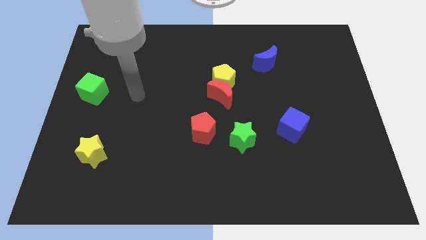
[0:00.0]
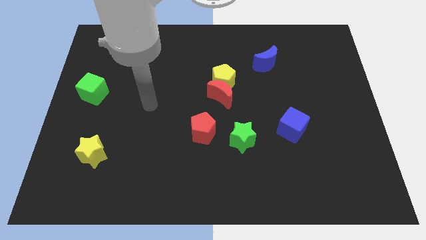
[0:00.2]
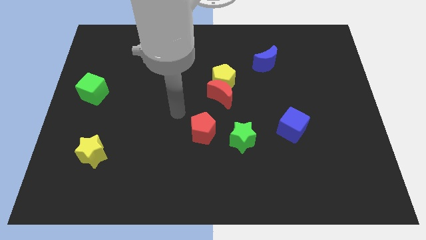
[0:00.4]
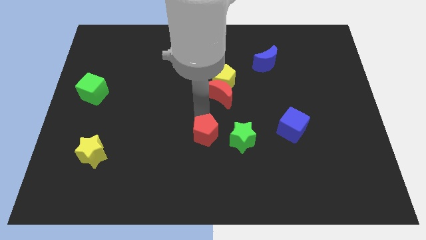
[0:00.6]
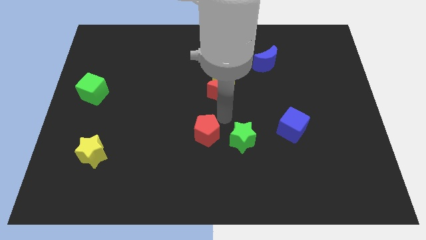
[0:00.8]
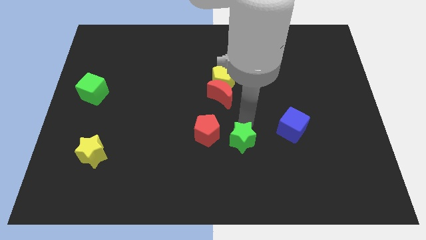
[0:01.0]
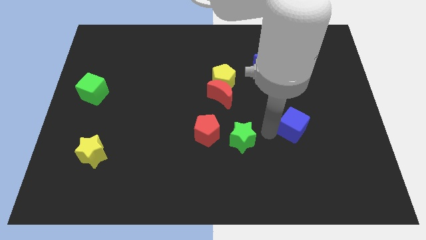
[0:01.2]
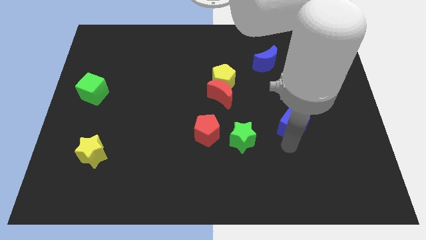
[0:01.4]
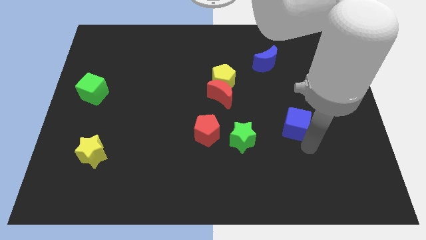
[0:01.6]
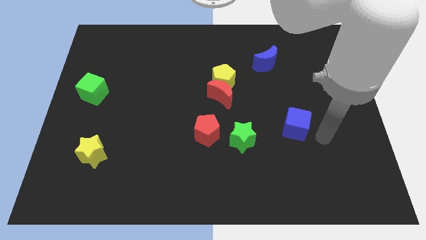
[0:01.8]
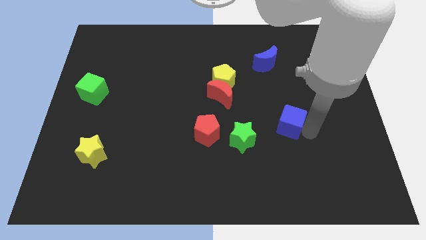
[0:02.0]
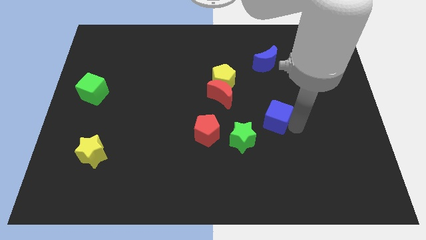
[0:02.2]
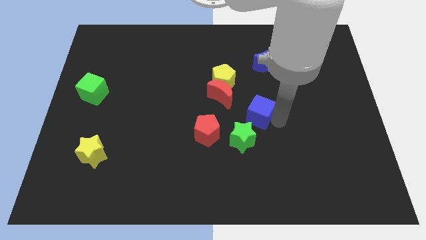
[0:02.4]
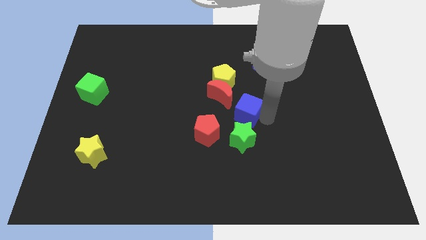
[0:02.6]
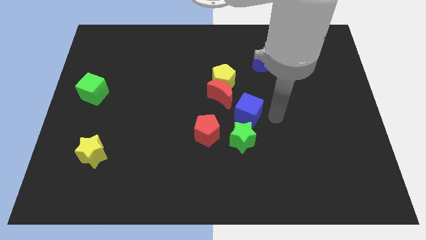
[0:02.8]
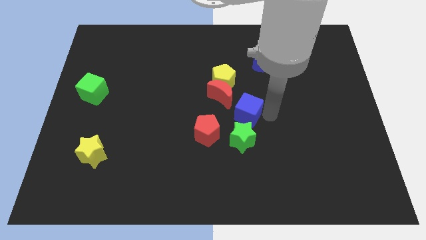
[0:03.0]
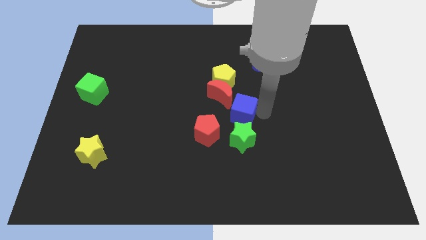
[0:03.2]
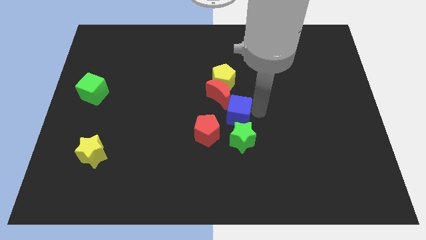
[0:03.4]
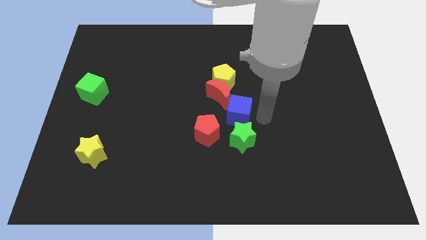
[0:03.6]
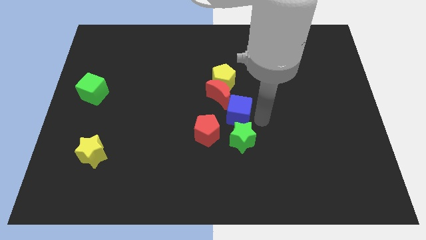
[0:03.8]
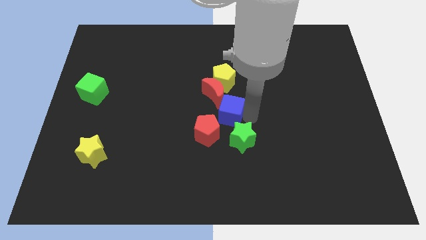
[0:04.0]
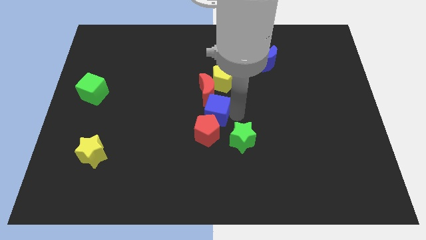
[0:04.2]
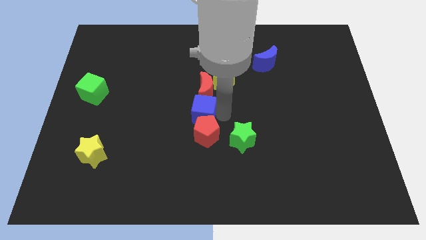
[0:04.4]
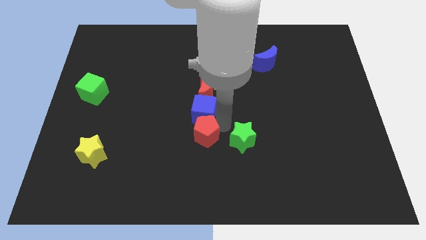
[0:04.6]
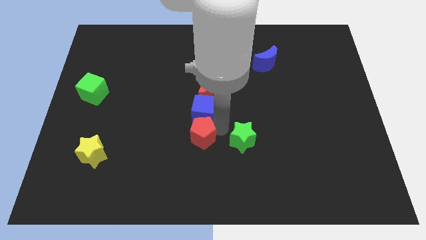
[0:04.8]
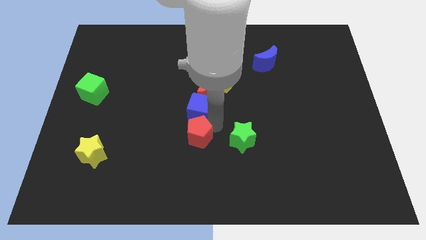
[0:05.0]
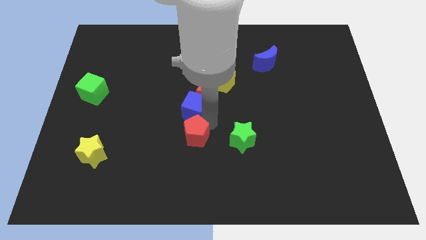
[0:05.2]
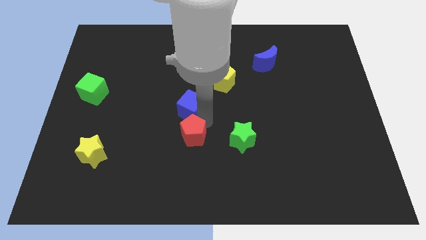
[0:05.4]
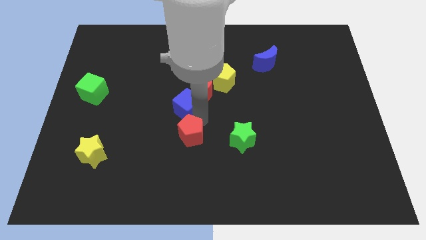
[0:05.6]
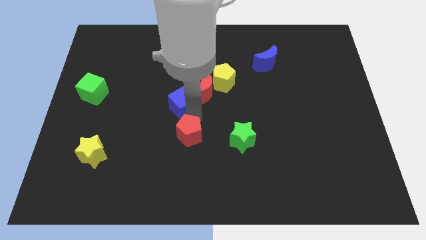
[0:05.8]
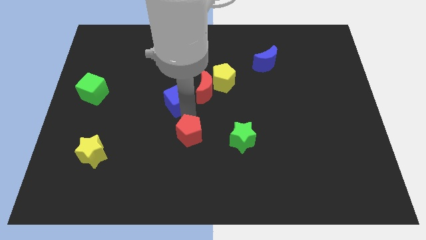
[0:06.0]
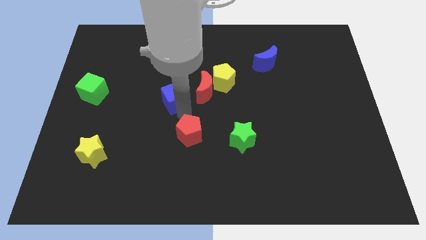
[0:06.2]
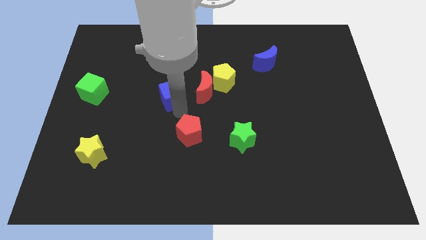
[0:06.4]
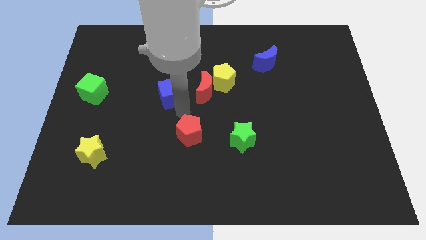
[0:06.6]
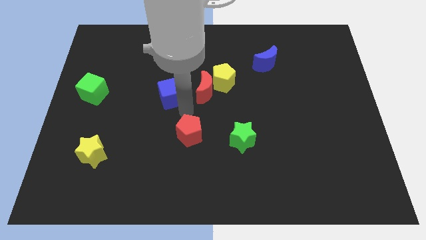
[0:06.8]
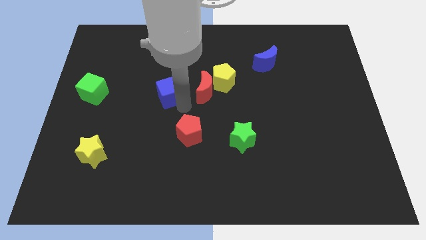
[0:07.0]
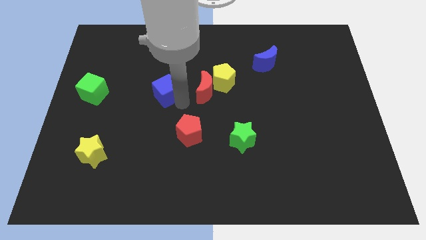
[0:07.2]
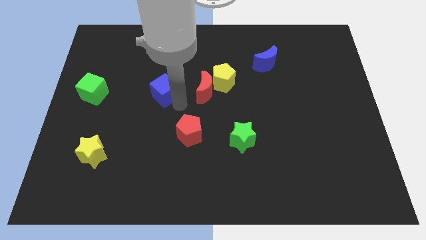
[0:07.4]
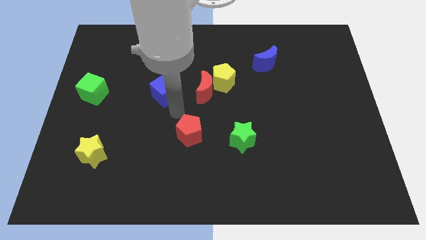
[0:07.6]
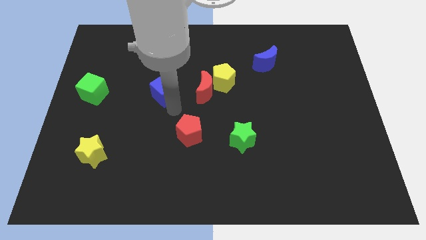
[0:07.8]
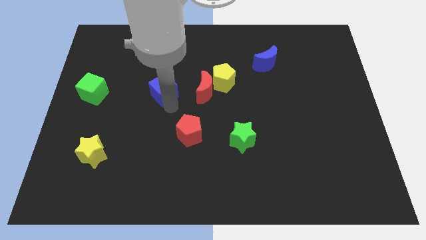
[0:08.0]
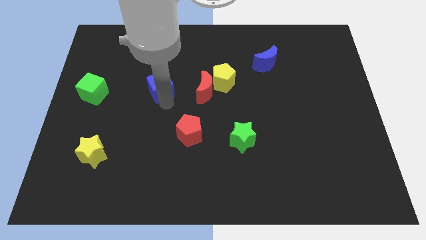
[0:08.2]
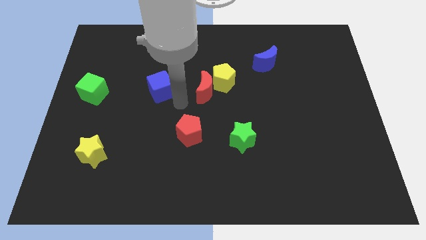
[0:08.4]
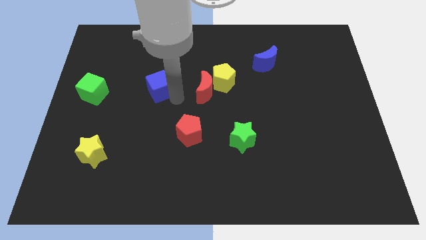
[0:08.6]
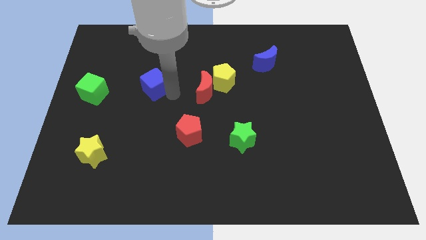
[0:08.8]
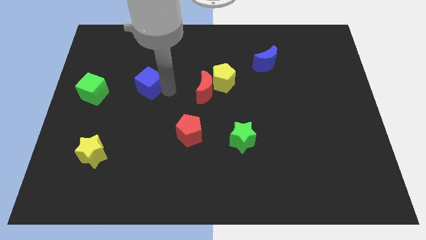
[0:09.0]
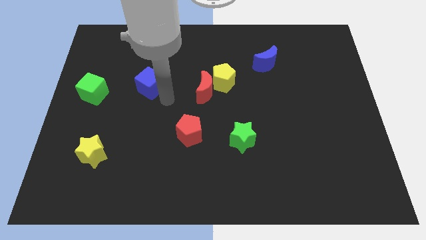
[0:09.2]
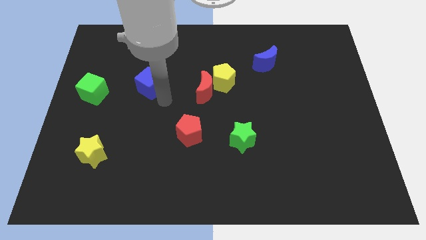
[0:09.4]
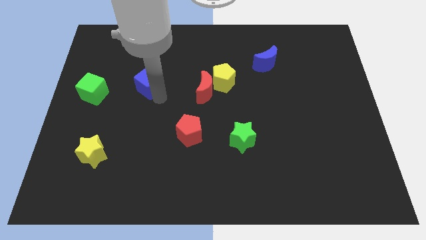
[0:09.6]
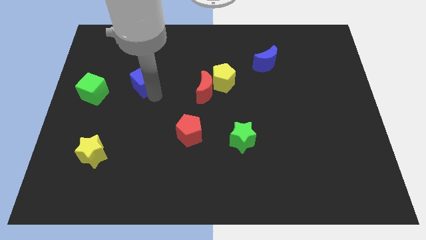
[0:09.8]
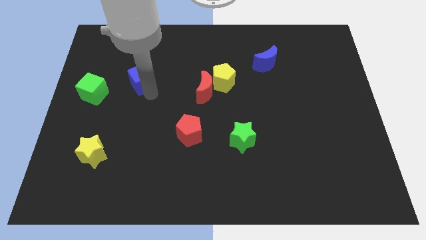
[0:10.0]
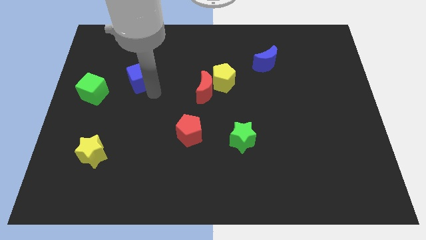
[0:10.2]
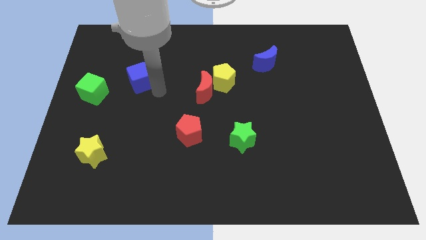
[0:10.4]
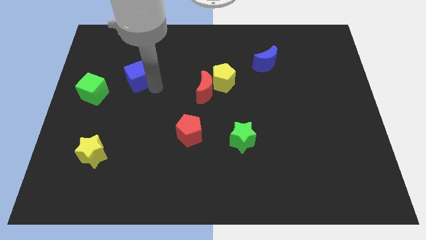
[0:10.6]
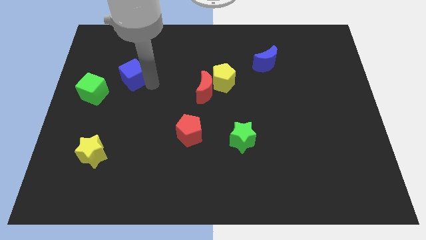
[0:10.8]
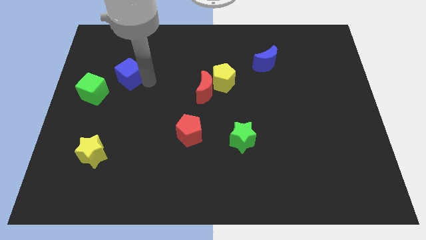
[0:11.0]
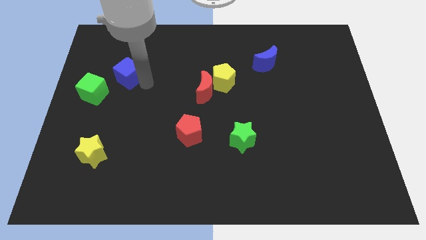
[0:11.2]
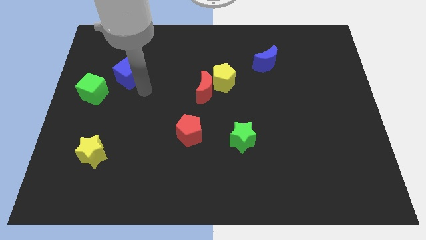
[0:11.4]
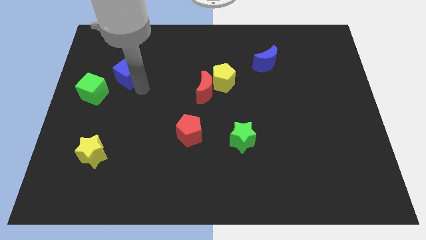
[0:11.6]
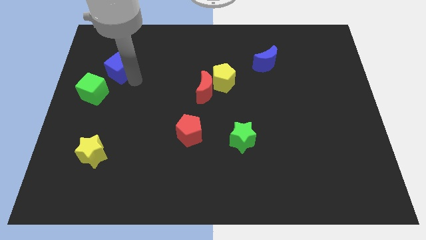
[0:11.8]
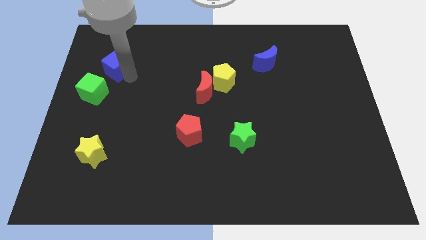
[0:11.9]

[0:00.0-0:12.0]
put the blue cube to the top of the green cube

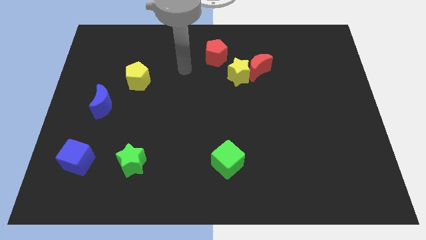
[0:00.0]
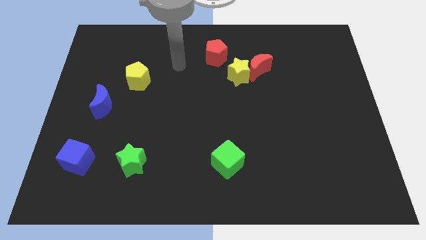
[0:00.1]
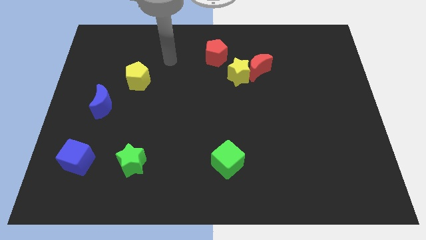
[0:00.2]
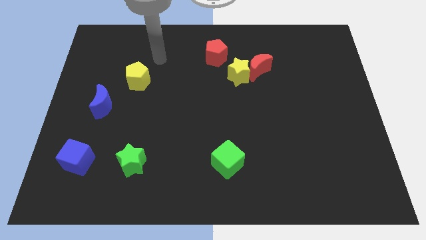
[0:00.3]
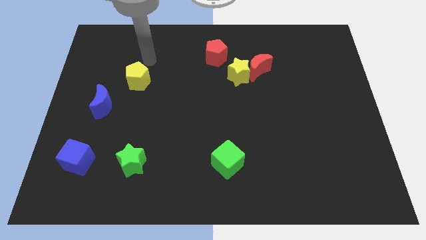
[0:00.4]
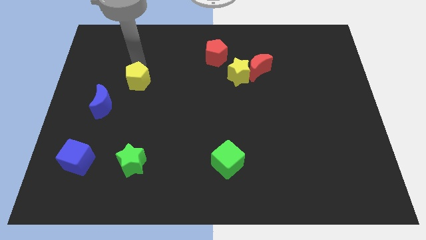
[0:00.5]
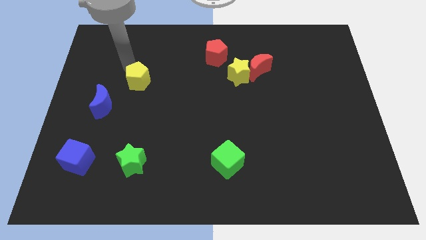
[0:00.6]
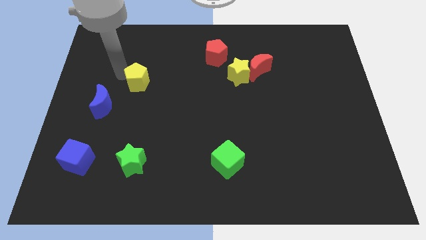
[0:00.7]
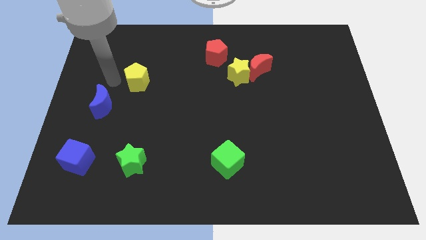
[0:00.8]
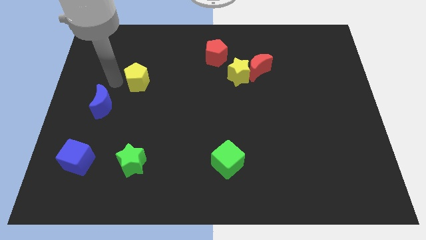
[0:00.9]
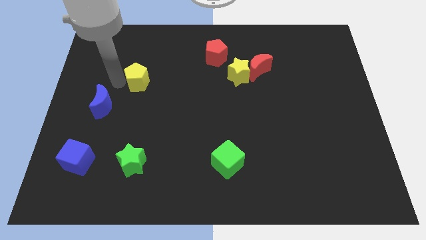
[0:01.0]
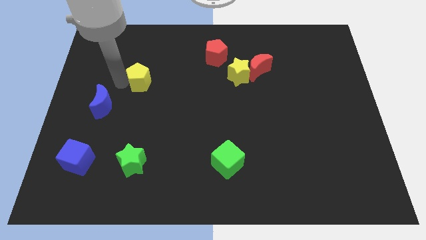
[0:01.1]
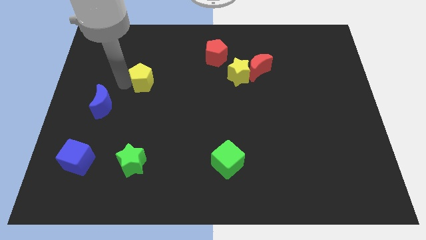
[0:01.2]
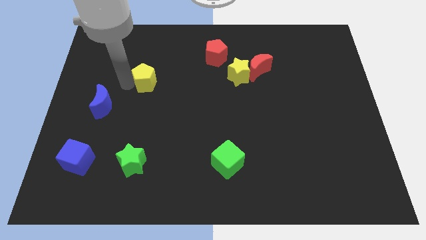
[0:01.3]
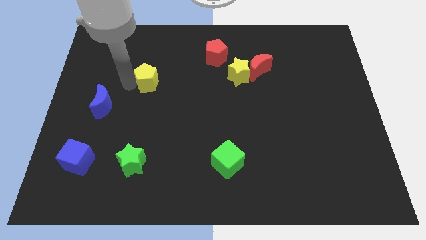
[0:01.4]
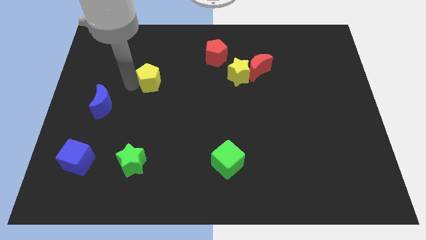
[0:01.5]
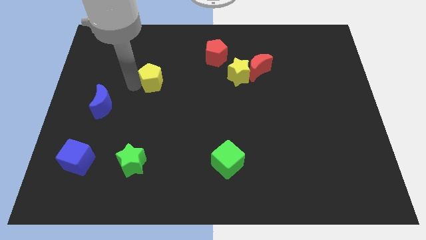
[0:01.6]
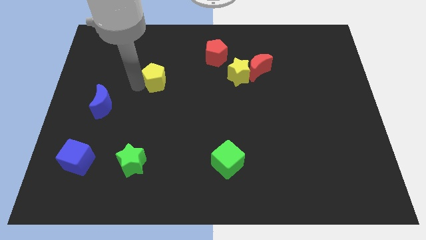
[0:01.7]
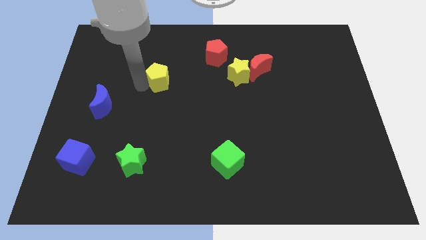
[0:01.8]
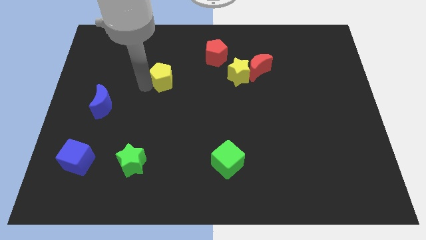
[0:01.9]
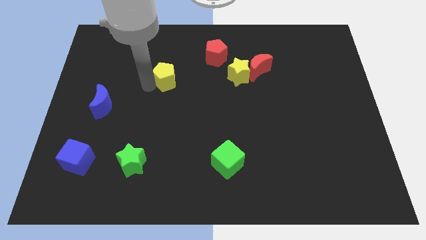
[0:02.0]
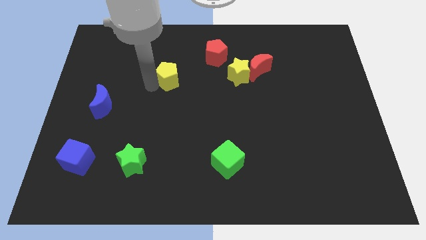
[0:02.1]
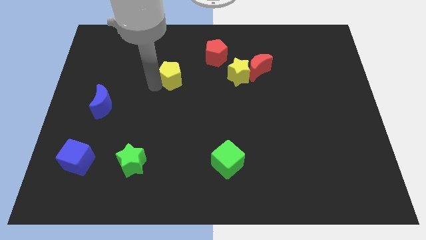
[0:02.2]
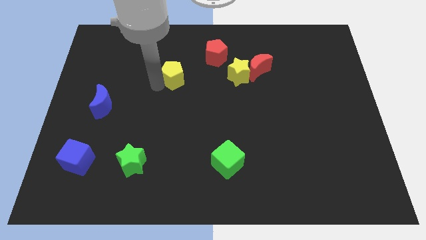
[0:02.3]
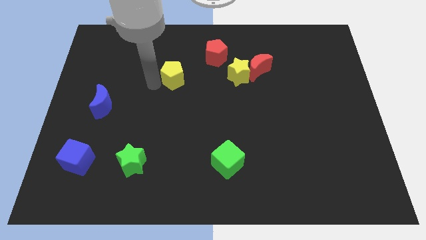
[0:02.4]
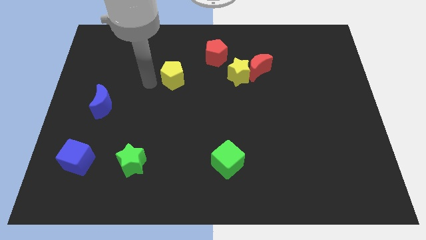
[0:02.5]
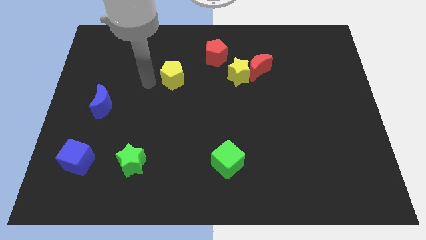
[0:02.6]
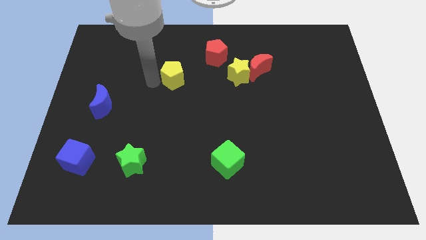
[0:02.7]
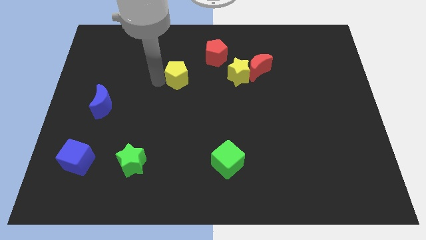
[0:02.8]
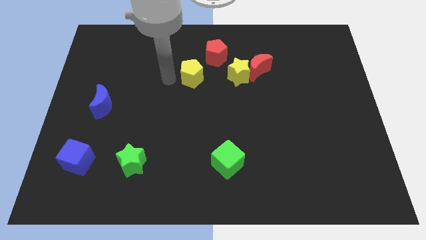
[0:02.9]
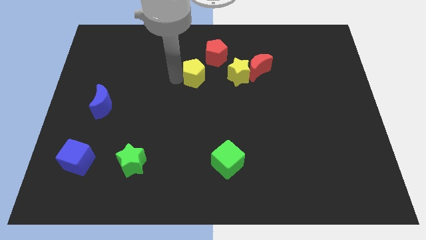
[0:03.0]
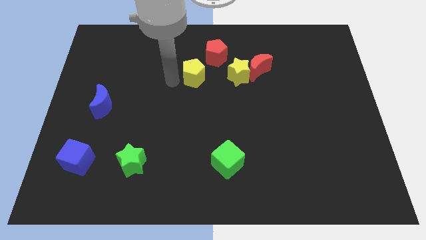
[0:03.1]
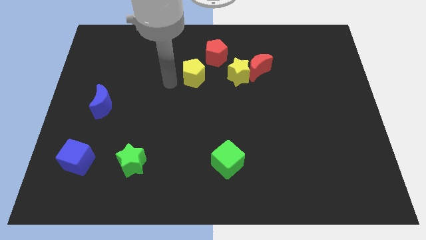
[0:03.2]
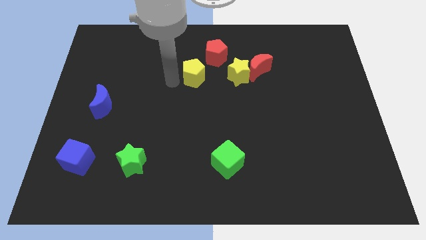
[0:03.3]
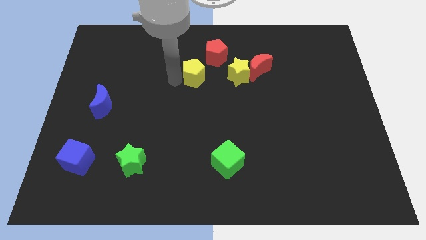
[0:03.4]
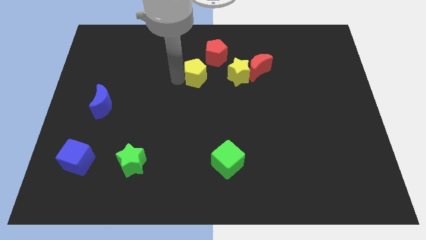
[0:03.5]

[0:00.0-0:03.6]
push the yellow pentagon left of the red moon
